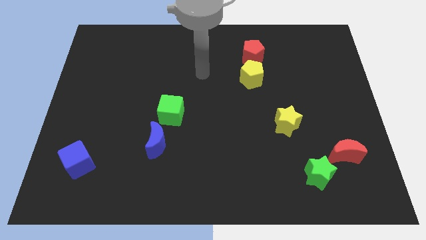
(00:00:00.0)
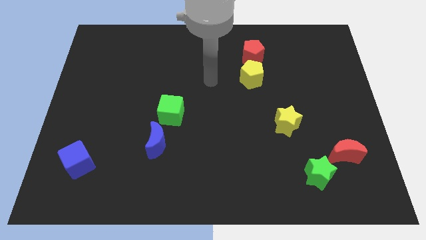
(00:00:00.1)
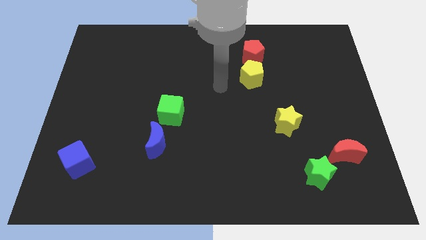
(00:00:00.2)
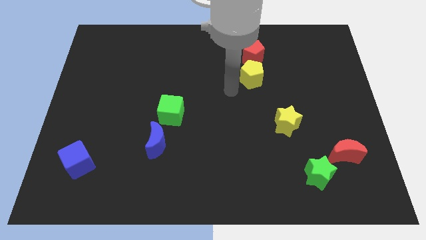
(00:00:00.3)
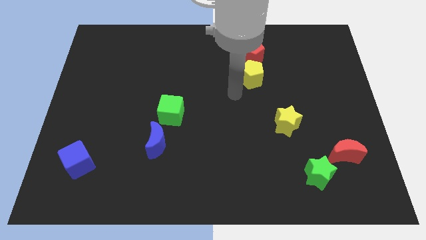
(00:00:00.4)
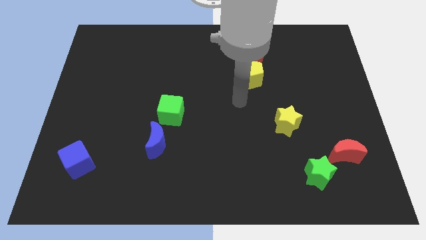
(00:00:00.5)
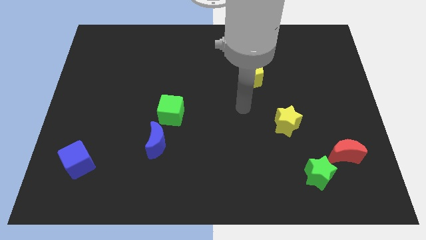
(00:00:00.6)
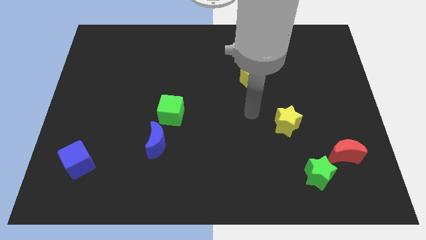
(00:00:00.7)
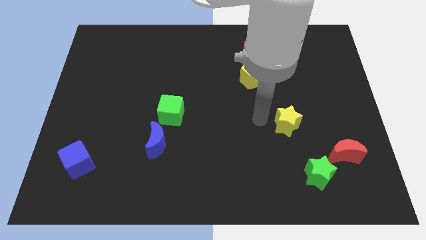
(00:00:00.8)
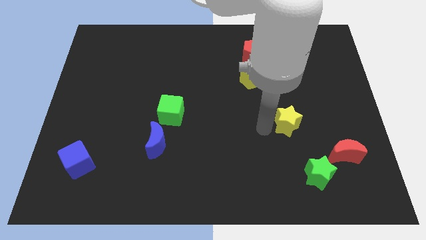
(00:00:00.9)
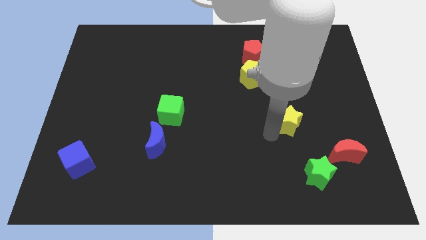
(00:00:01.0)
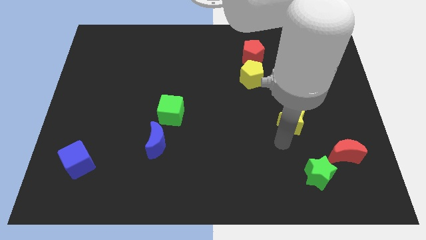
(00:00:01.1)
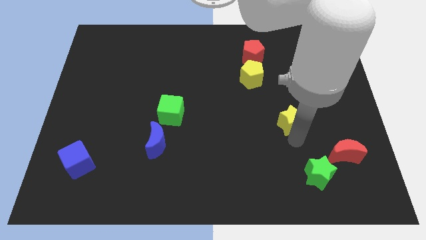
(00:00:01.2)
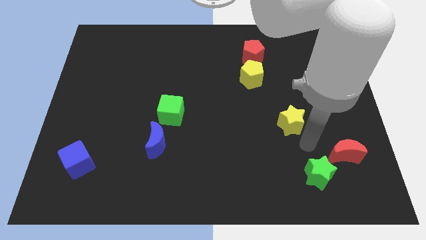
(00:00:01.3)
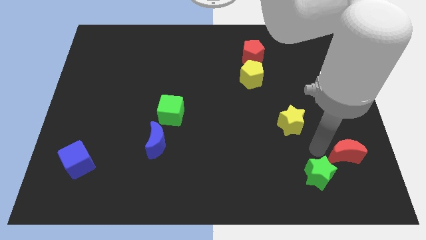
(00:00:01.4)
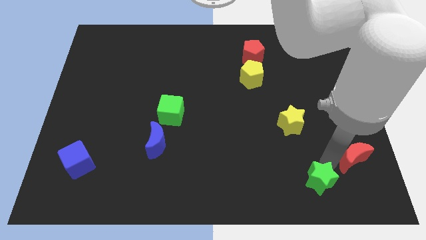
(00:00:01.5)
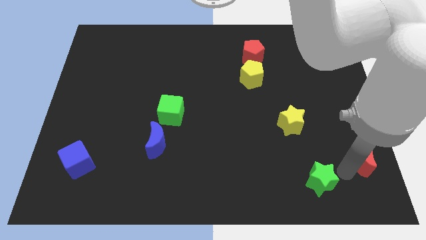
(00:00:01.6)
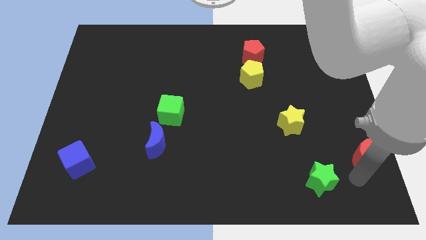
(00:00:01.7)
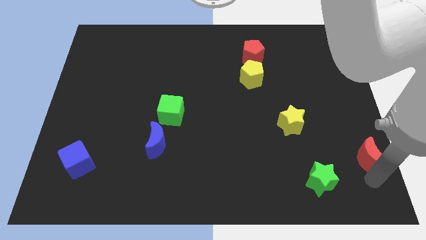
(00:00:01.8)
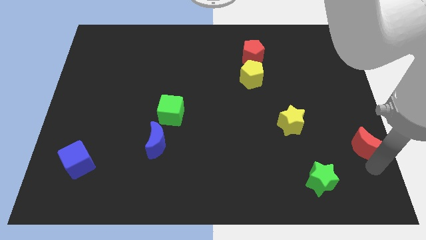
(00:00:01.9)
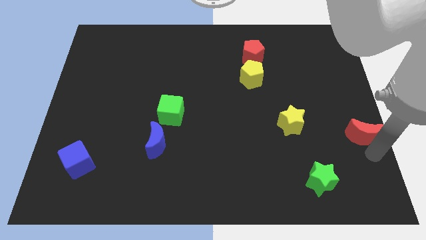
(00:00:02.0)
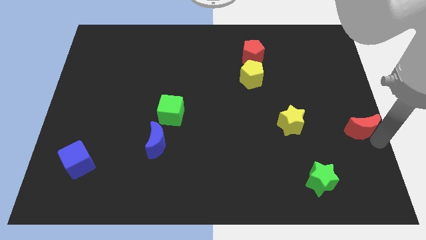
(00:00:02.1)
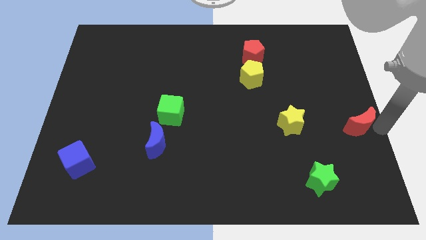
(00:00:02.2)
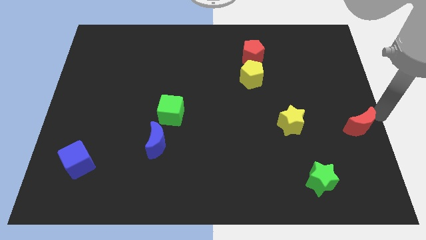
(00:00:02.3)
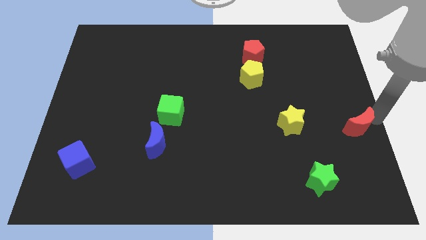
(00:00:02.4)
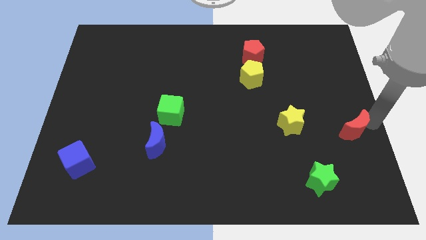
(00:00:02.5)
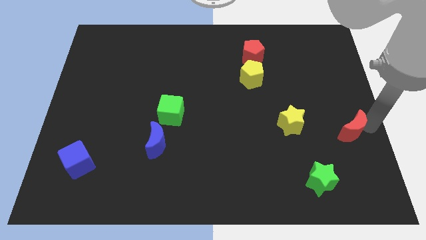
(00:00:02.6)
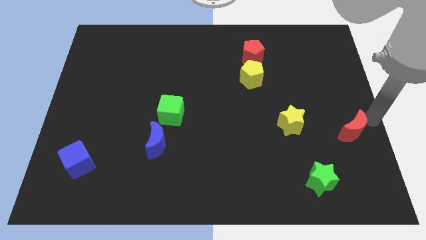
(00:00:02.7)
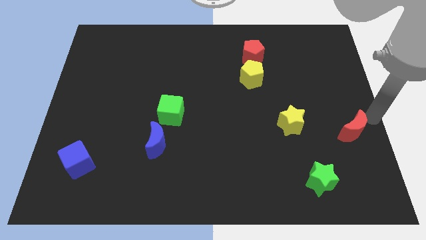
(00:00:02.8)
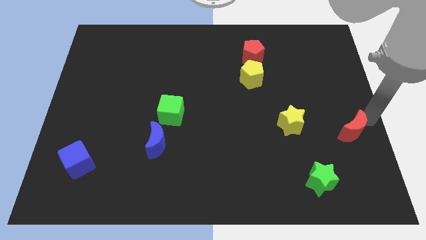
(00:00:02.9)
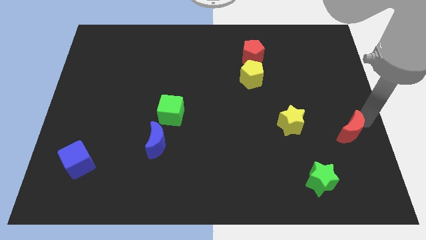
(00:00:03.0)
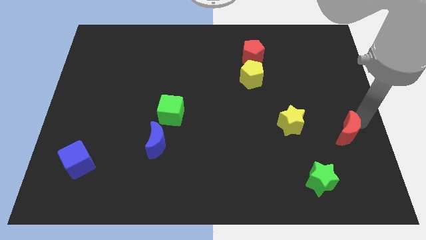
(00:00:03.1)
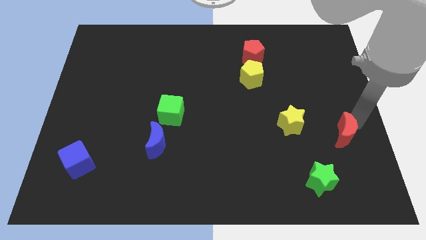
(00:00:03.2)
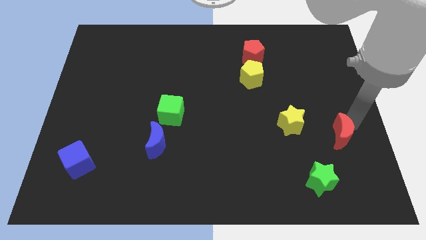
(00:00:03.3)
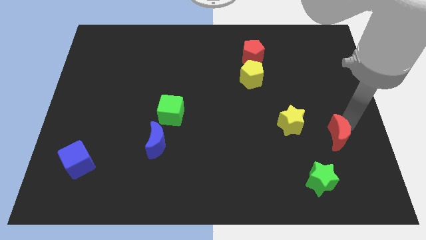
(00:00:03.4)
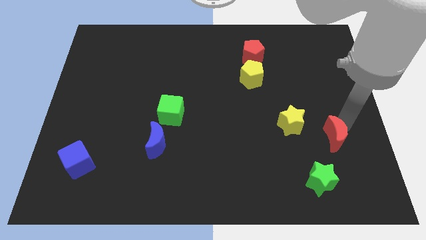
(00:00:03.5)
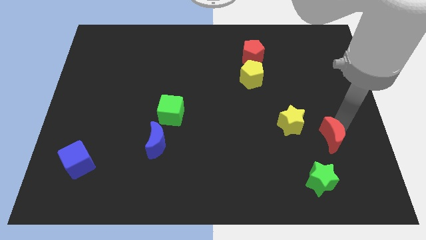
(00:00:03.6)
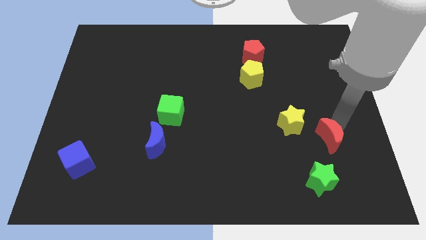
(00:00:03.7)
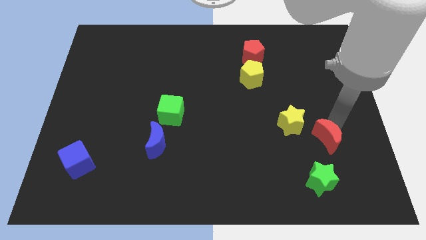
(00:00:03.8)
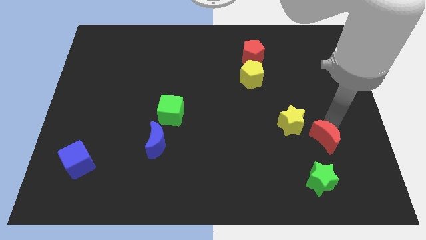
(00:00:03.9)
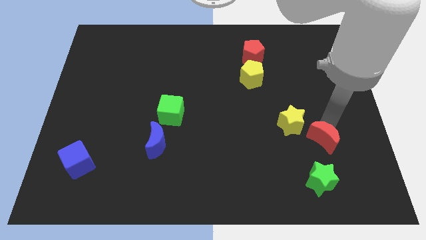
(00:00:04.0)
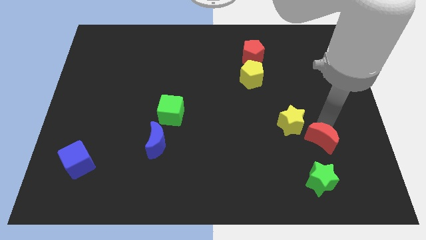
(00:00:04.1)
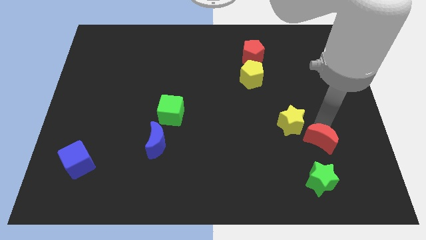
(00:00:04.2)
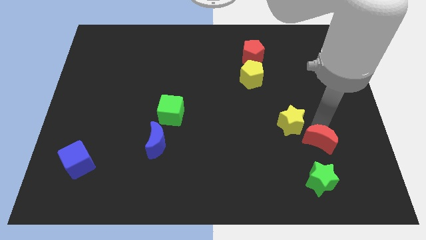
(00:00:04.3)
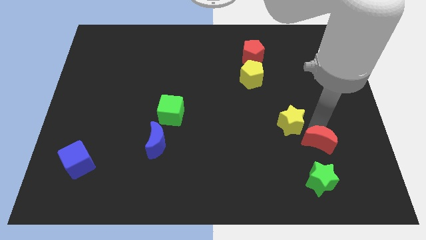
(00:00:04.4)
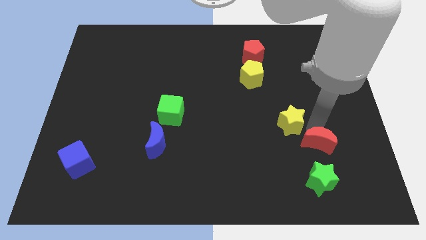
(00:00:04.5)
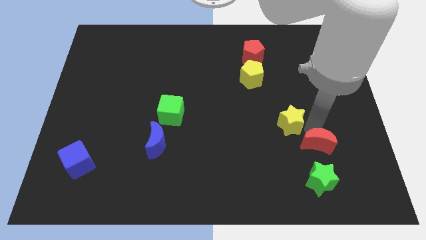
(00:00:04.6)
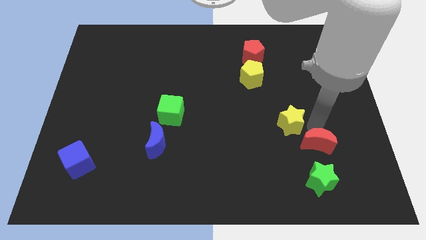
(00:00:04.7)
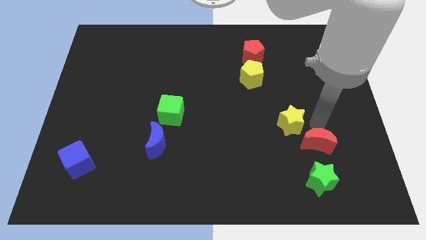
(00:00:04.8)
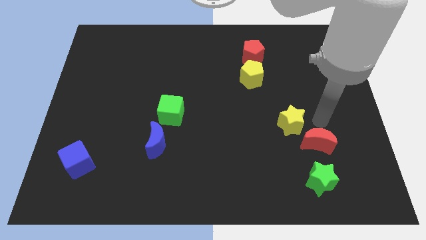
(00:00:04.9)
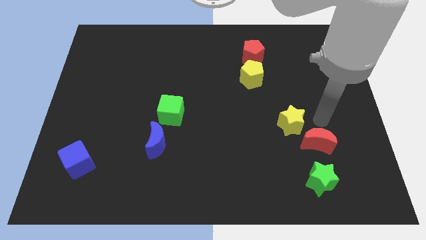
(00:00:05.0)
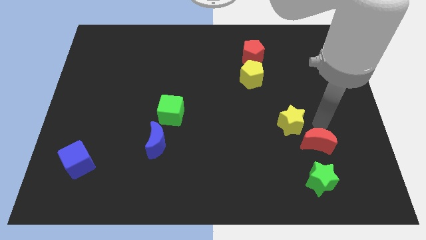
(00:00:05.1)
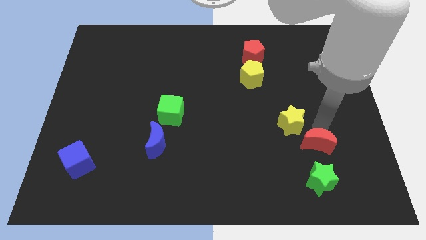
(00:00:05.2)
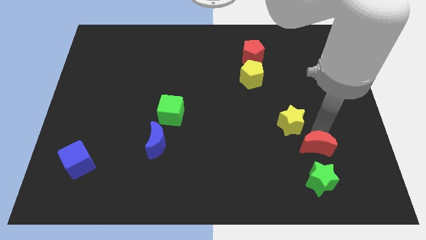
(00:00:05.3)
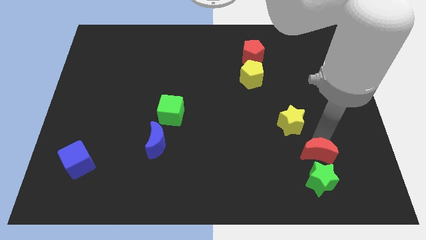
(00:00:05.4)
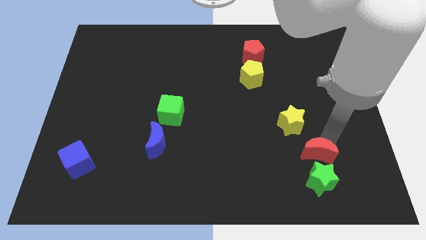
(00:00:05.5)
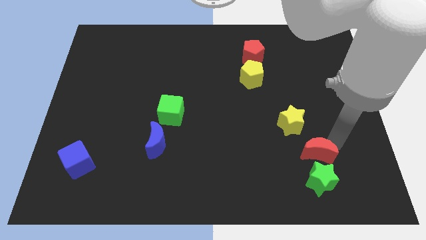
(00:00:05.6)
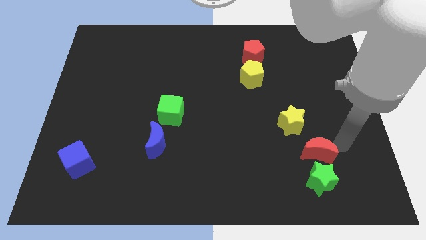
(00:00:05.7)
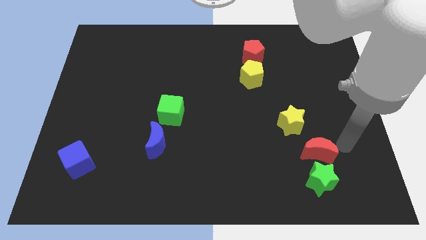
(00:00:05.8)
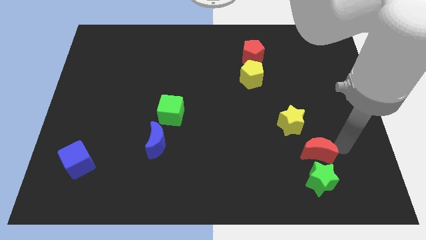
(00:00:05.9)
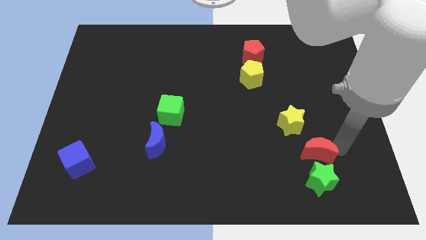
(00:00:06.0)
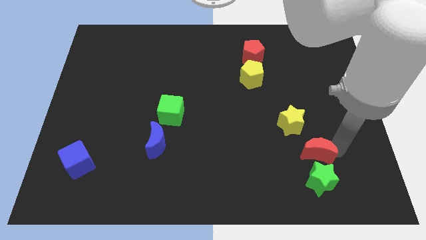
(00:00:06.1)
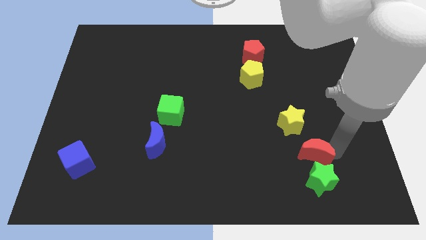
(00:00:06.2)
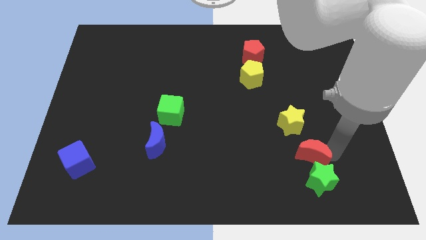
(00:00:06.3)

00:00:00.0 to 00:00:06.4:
slide the red moon left slightly

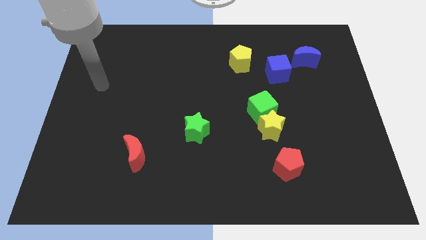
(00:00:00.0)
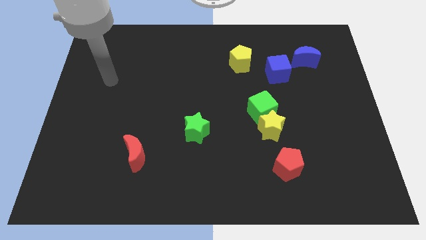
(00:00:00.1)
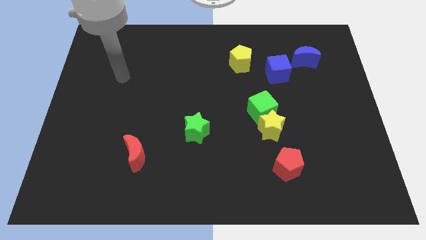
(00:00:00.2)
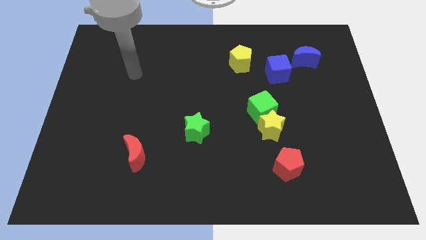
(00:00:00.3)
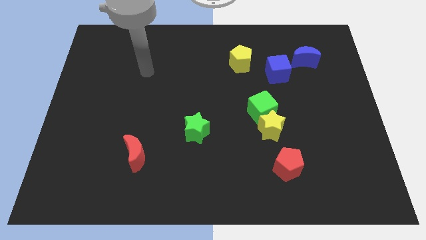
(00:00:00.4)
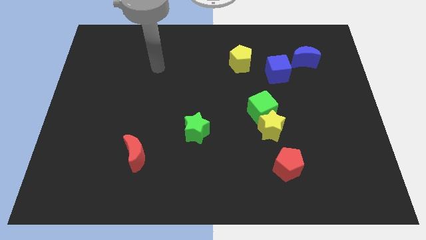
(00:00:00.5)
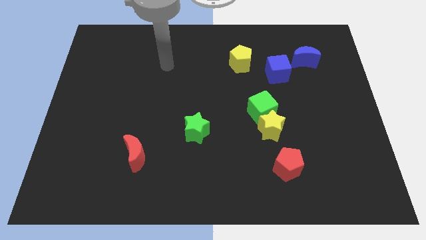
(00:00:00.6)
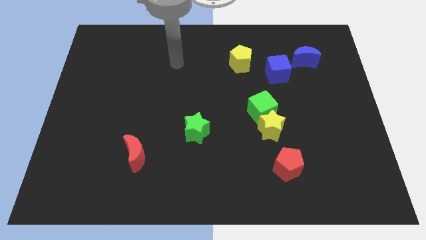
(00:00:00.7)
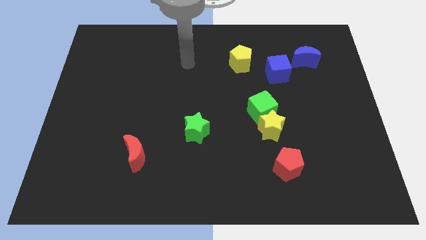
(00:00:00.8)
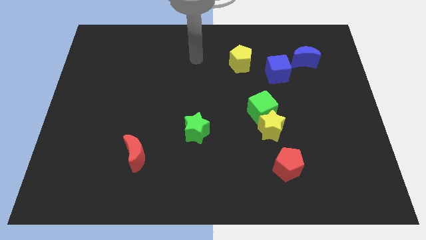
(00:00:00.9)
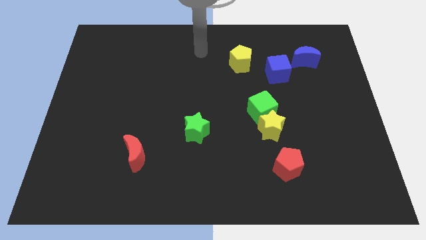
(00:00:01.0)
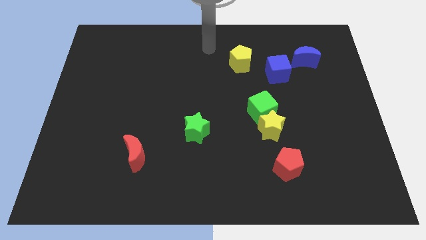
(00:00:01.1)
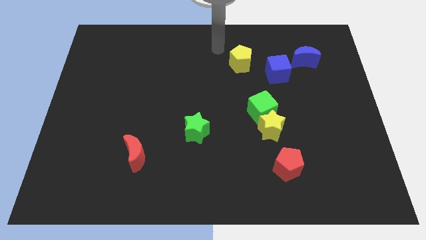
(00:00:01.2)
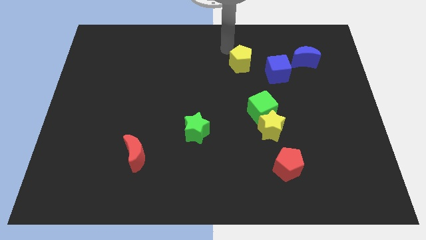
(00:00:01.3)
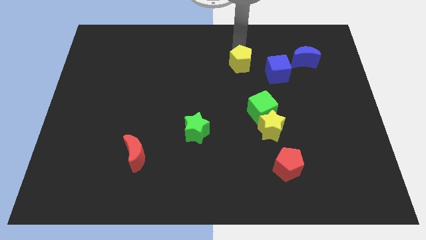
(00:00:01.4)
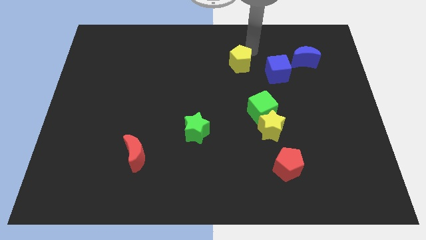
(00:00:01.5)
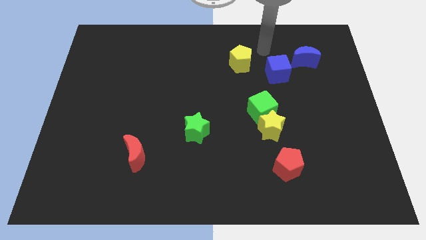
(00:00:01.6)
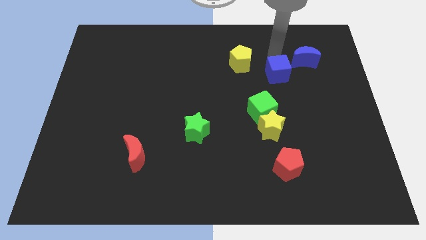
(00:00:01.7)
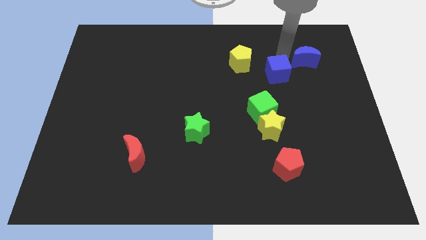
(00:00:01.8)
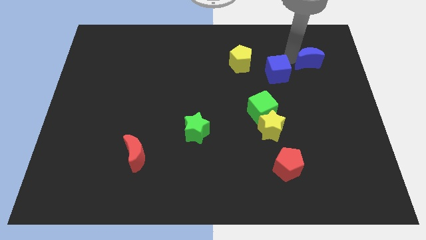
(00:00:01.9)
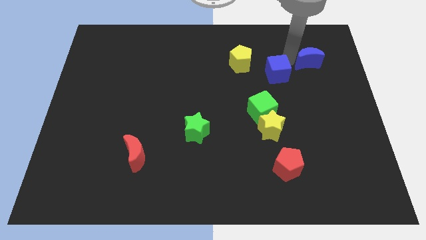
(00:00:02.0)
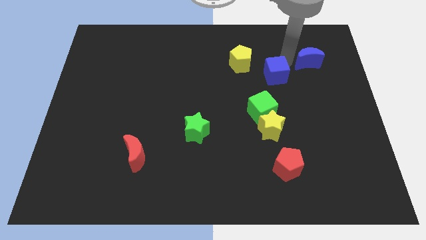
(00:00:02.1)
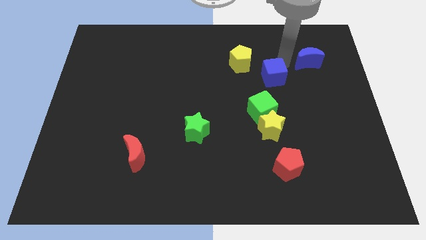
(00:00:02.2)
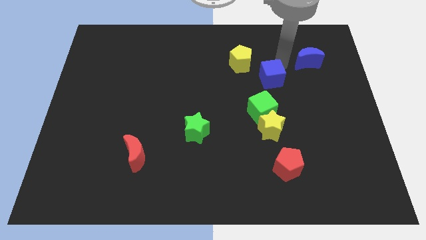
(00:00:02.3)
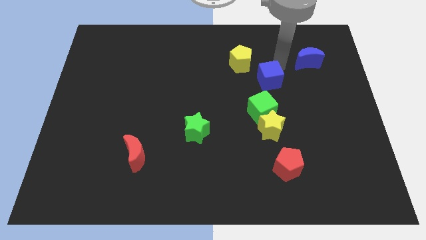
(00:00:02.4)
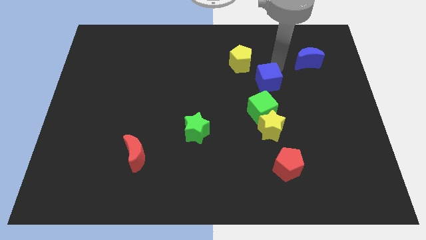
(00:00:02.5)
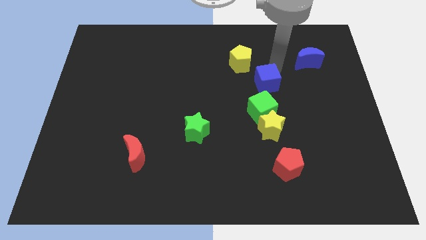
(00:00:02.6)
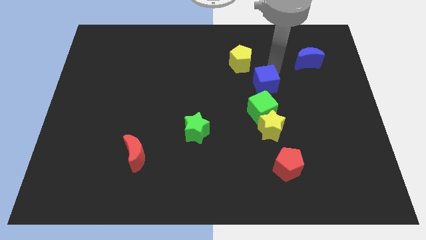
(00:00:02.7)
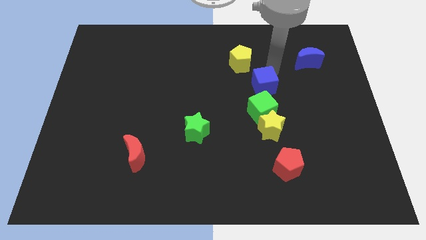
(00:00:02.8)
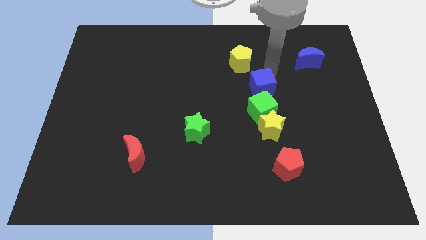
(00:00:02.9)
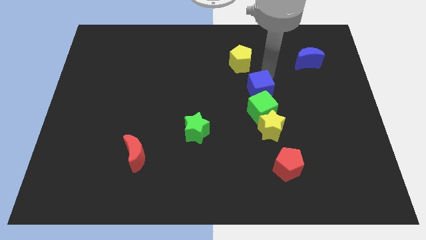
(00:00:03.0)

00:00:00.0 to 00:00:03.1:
slide the blue cube a little downwards and then to the left
